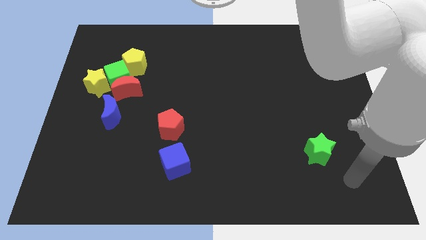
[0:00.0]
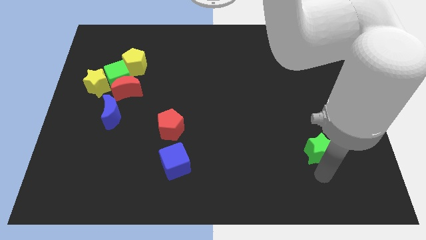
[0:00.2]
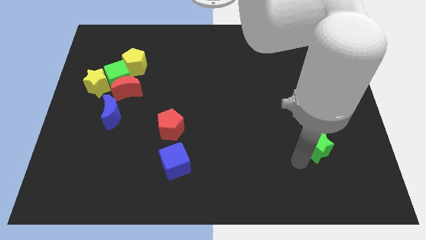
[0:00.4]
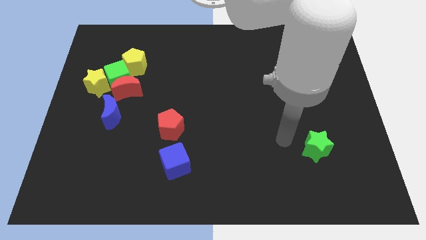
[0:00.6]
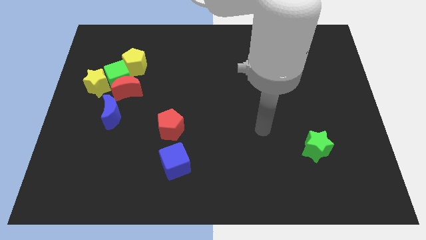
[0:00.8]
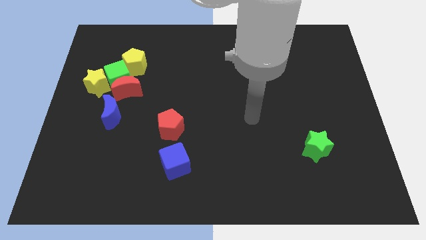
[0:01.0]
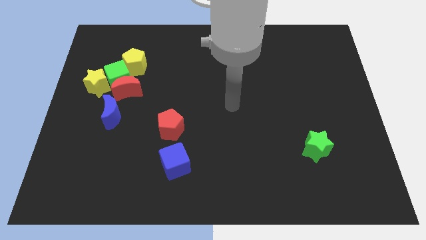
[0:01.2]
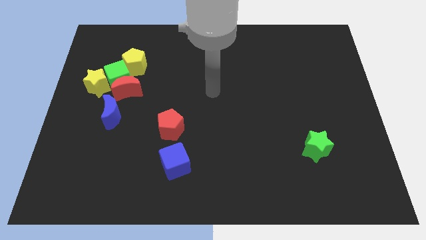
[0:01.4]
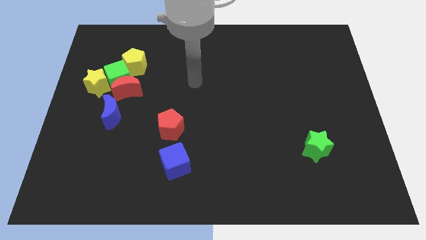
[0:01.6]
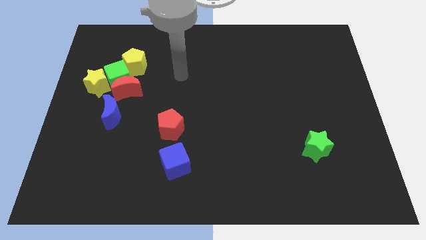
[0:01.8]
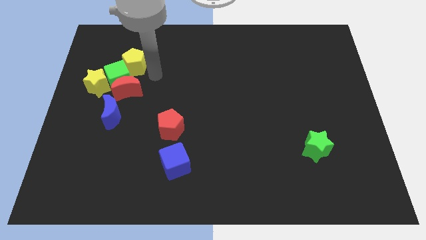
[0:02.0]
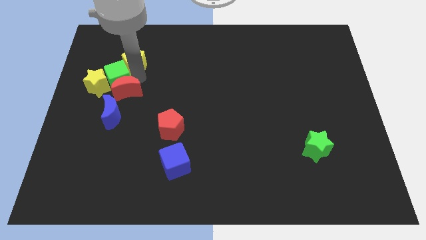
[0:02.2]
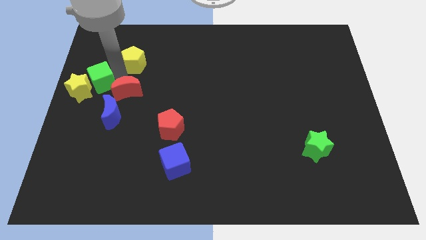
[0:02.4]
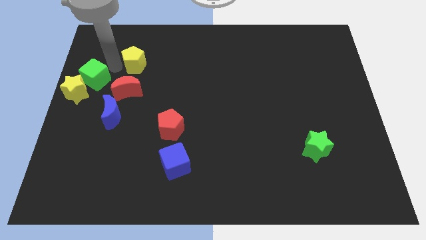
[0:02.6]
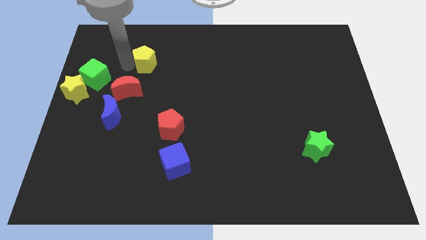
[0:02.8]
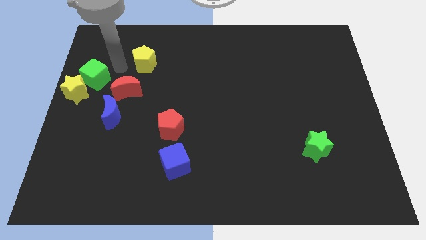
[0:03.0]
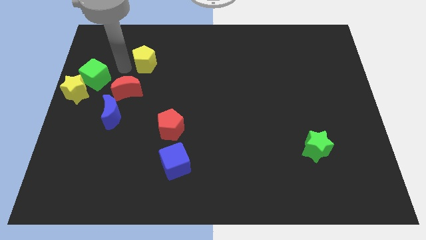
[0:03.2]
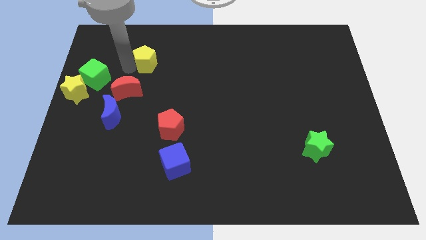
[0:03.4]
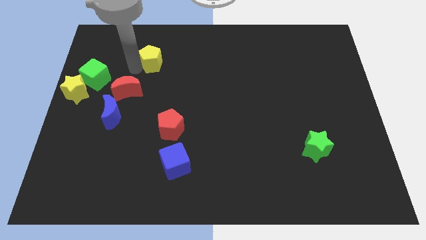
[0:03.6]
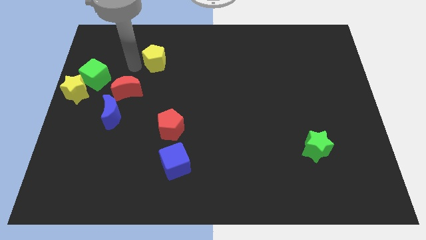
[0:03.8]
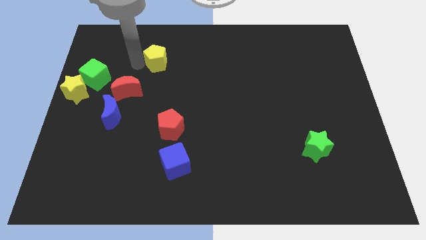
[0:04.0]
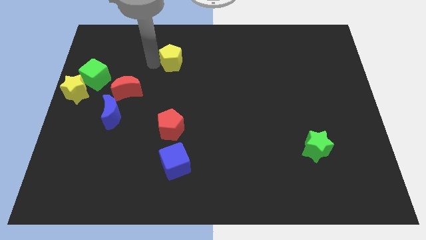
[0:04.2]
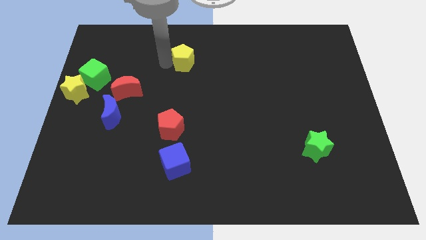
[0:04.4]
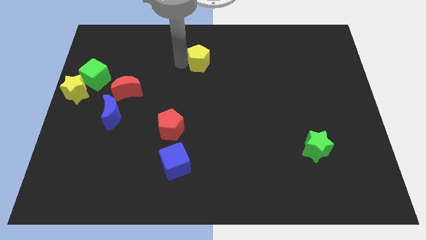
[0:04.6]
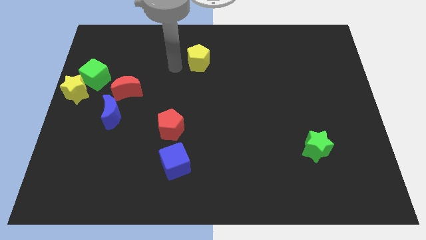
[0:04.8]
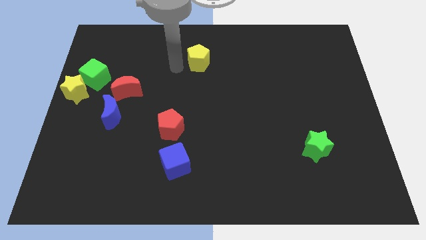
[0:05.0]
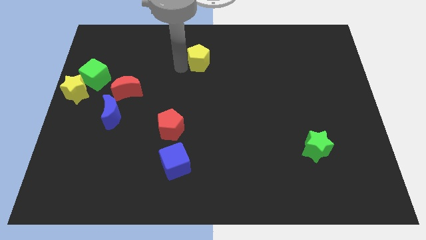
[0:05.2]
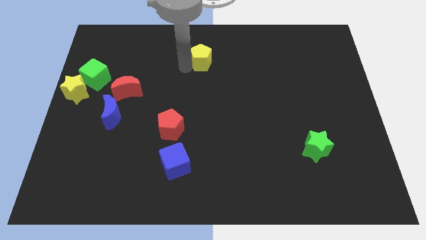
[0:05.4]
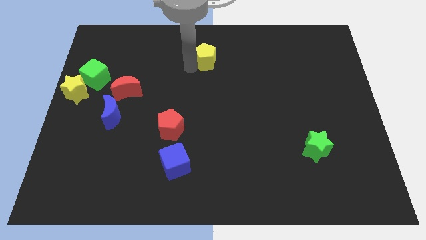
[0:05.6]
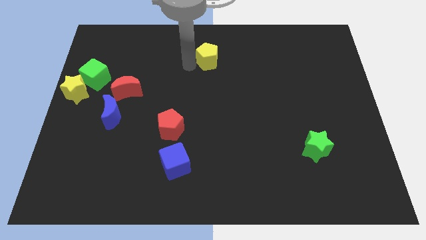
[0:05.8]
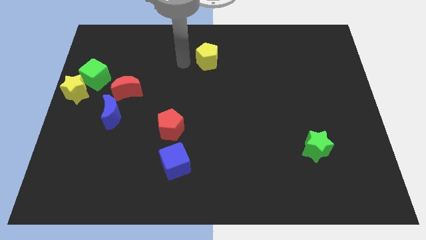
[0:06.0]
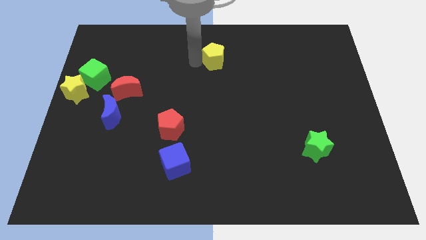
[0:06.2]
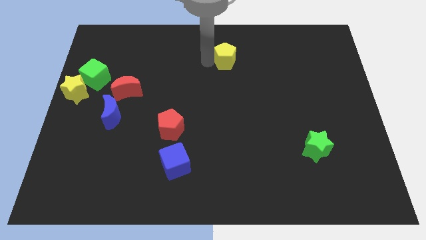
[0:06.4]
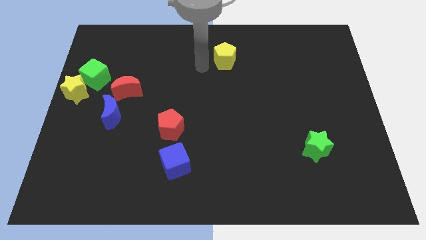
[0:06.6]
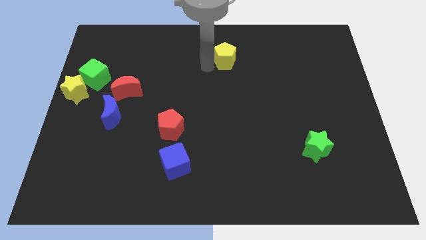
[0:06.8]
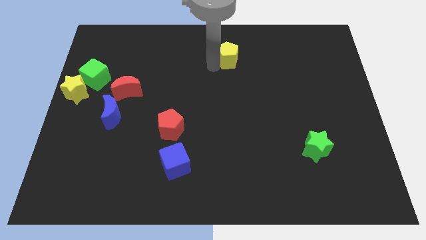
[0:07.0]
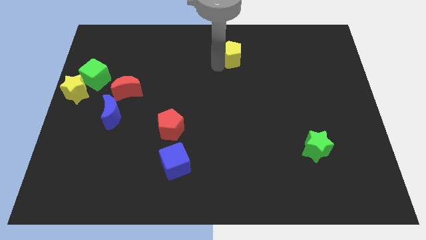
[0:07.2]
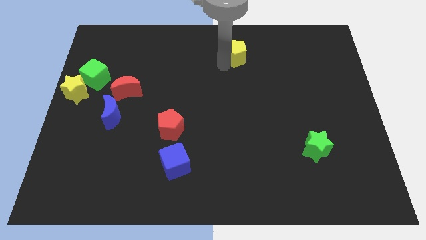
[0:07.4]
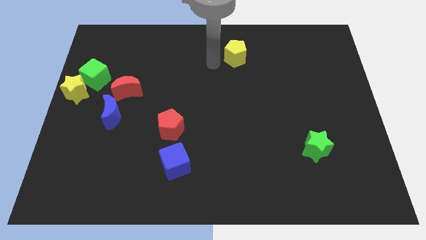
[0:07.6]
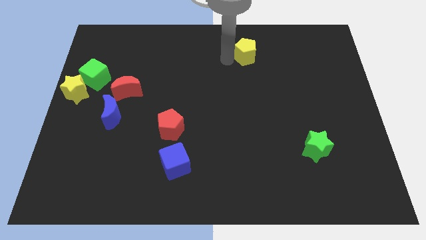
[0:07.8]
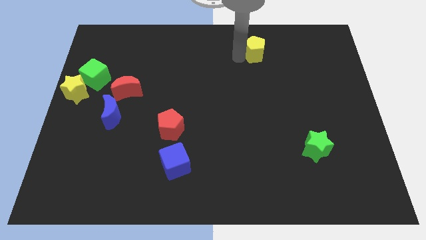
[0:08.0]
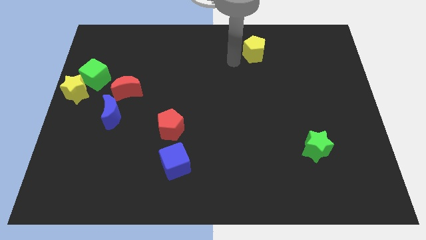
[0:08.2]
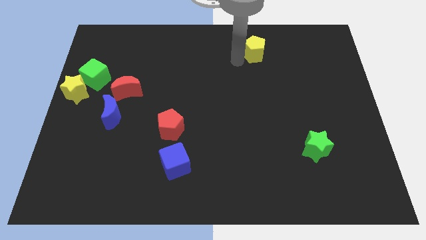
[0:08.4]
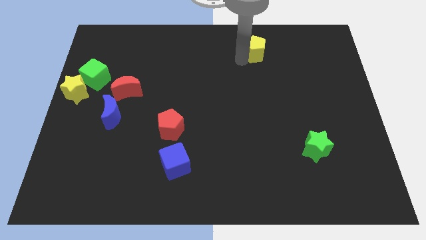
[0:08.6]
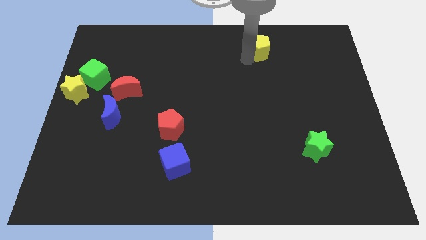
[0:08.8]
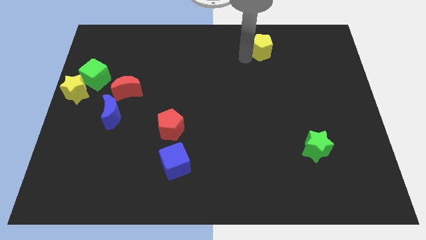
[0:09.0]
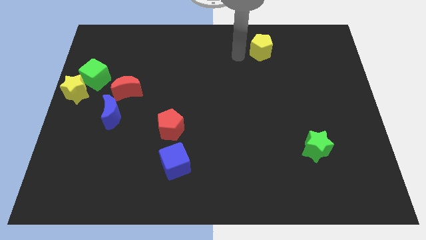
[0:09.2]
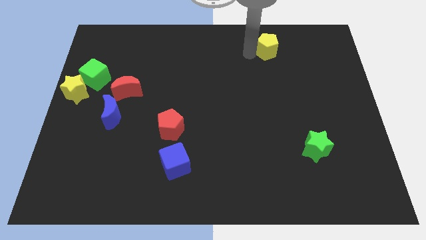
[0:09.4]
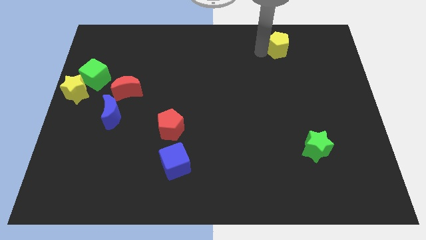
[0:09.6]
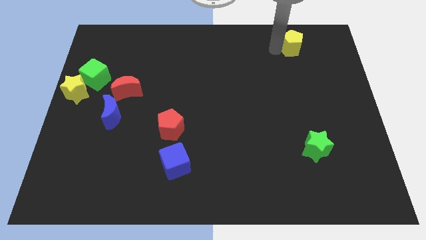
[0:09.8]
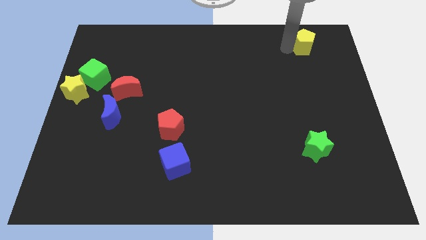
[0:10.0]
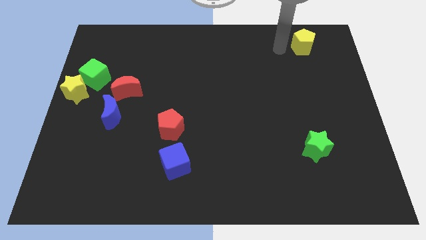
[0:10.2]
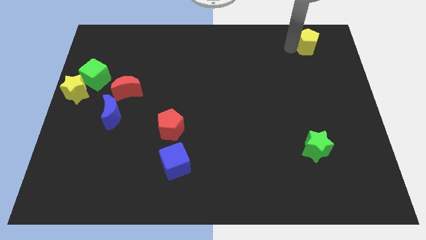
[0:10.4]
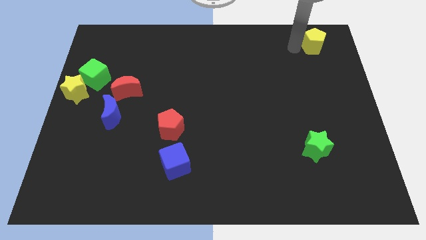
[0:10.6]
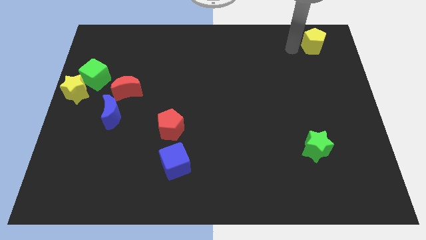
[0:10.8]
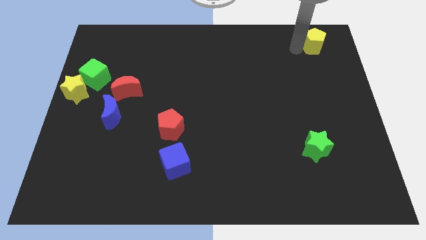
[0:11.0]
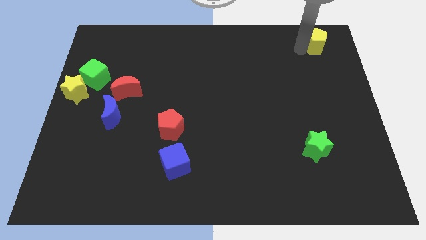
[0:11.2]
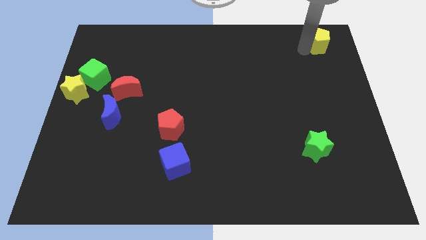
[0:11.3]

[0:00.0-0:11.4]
push the yellow pentagon to the top right
